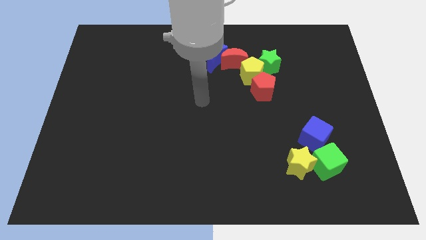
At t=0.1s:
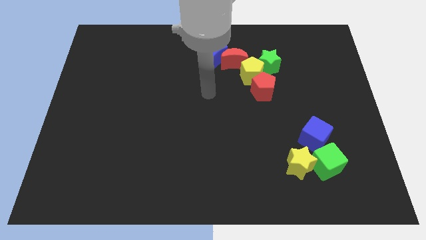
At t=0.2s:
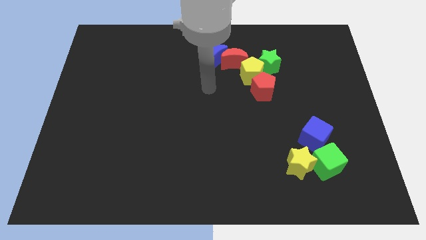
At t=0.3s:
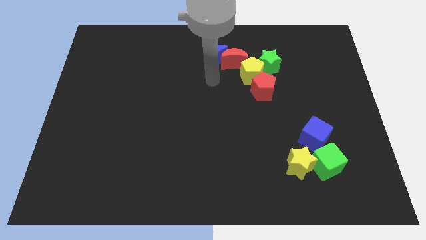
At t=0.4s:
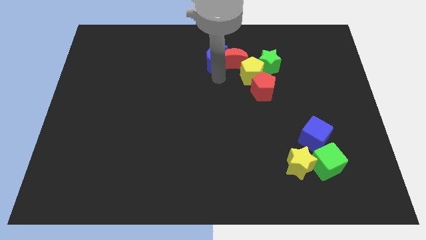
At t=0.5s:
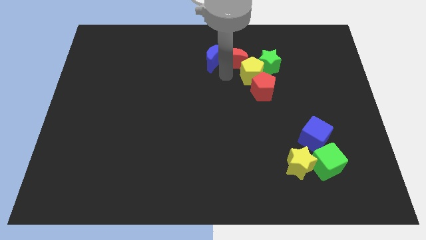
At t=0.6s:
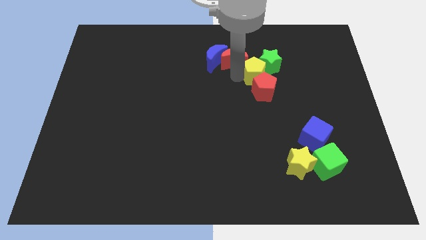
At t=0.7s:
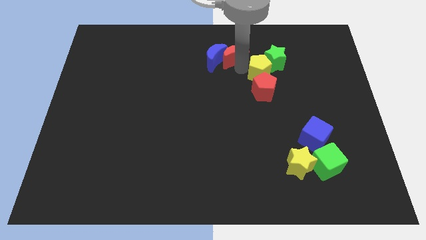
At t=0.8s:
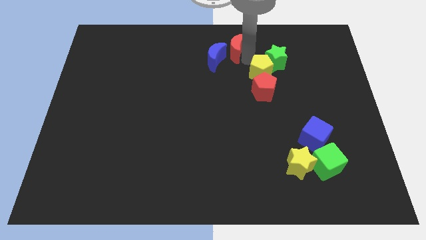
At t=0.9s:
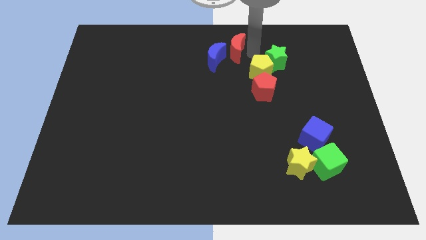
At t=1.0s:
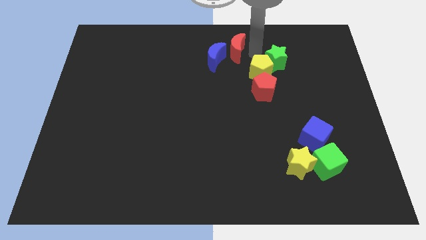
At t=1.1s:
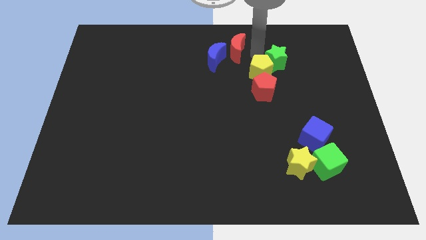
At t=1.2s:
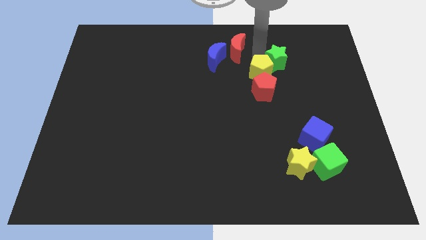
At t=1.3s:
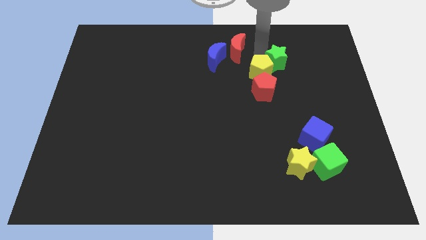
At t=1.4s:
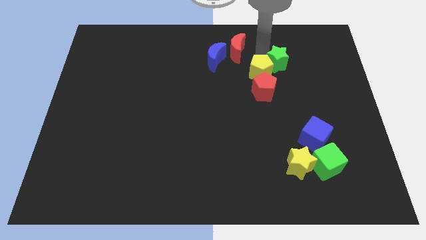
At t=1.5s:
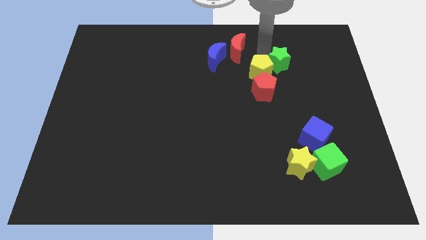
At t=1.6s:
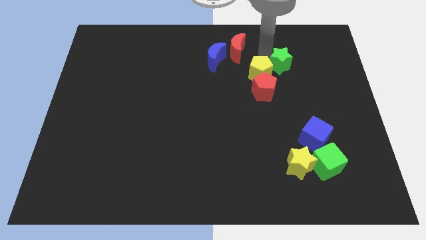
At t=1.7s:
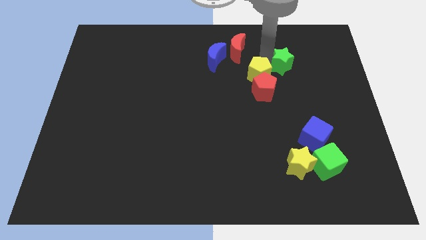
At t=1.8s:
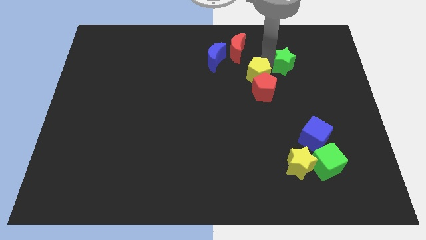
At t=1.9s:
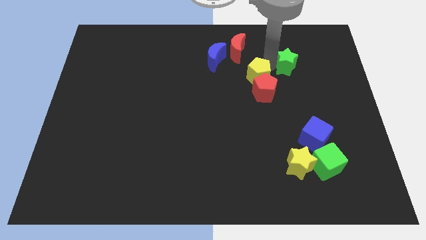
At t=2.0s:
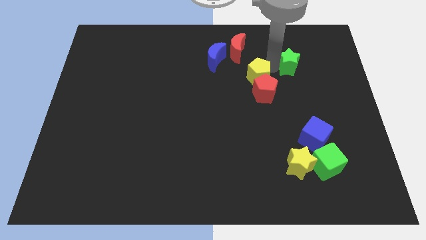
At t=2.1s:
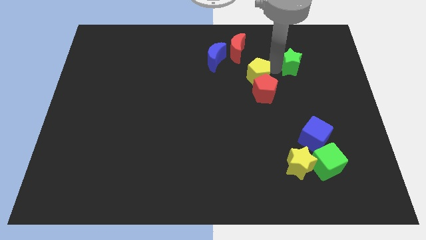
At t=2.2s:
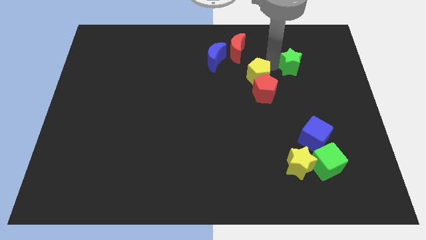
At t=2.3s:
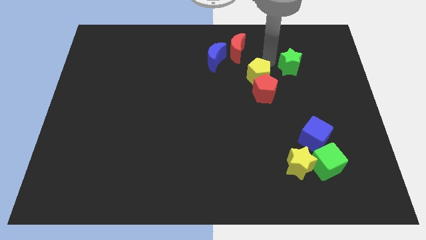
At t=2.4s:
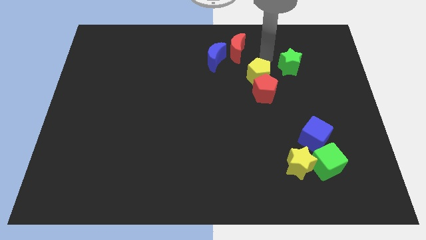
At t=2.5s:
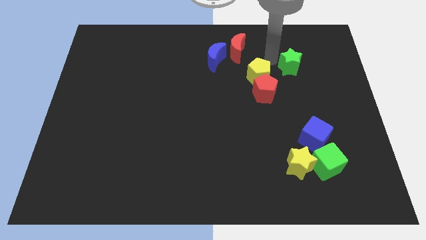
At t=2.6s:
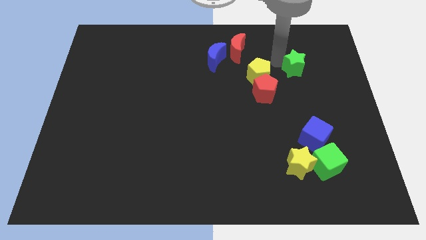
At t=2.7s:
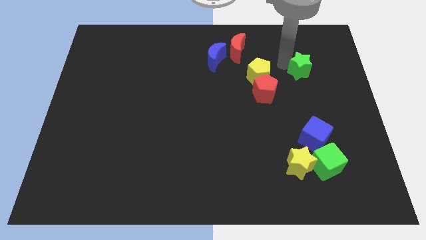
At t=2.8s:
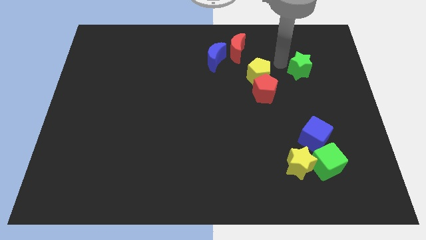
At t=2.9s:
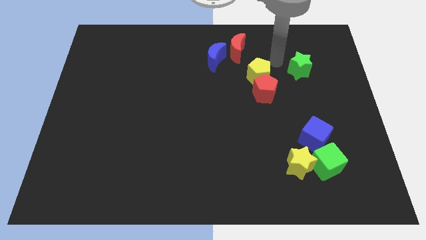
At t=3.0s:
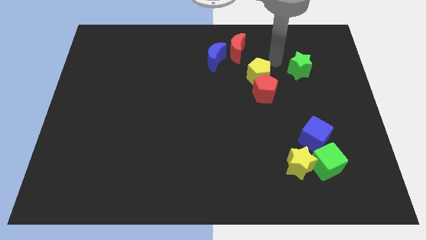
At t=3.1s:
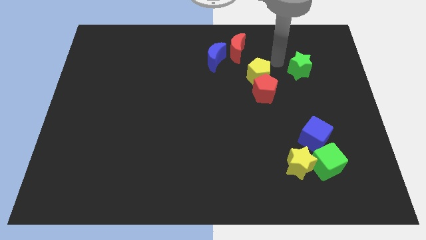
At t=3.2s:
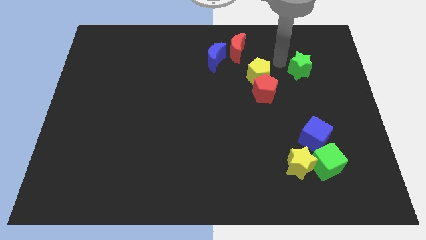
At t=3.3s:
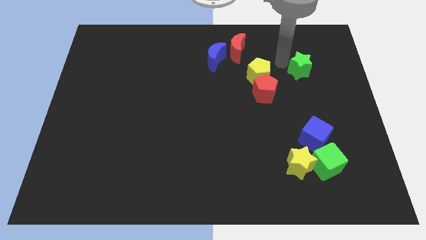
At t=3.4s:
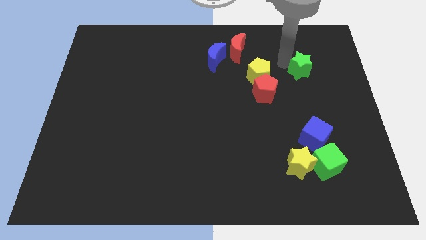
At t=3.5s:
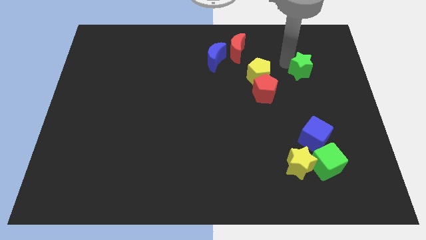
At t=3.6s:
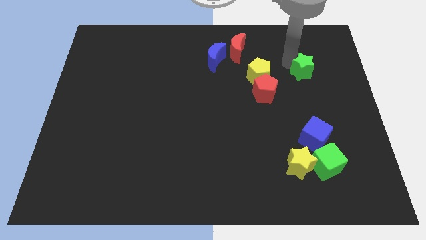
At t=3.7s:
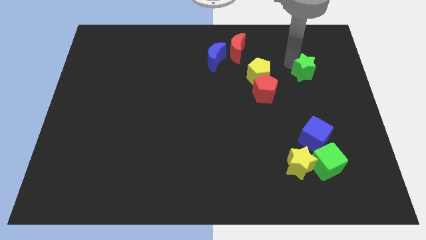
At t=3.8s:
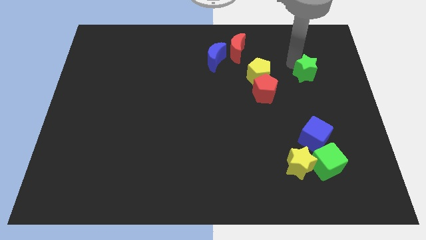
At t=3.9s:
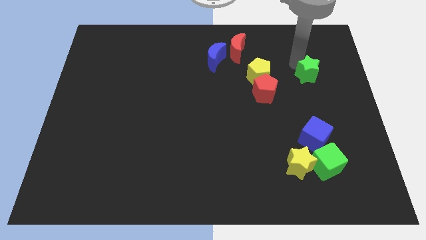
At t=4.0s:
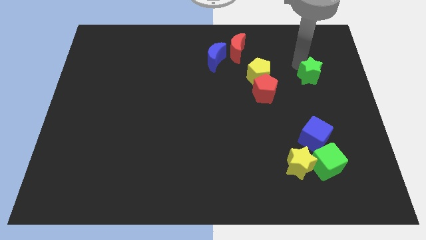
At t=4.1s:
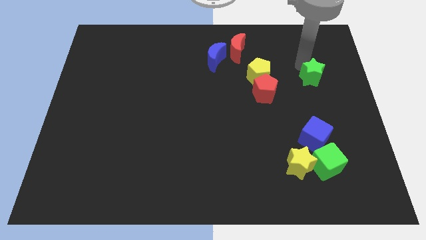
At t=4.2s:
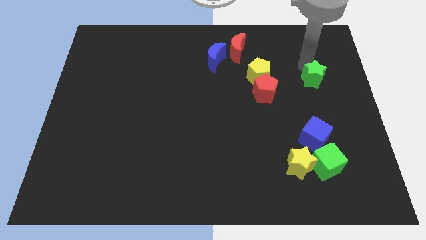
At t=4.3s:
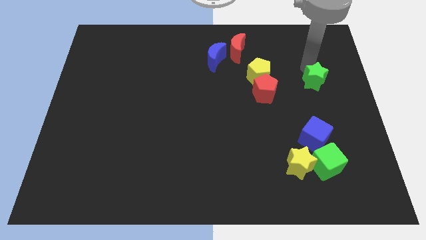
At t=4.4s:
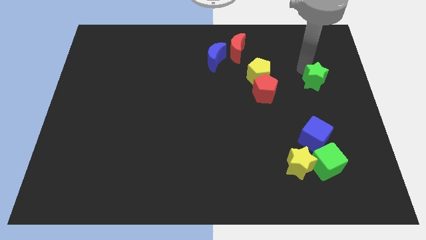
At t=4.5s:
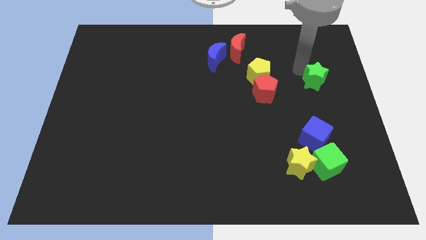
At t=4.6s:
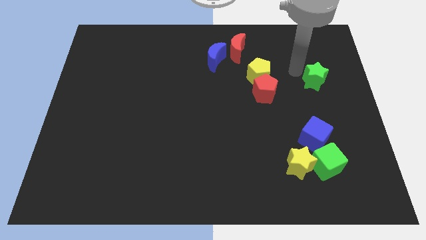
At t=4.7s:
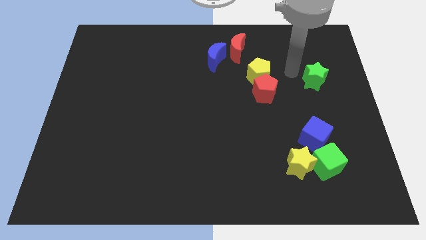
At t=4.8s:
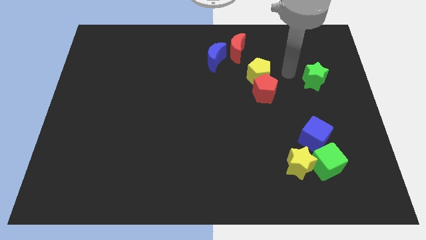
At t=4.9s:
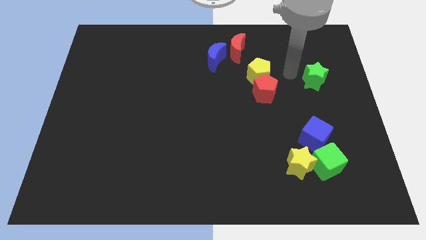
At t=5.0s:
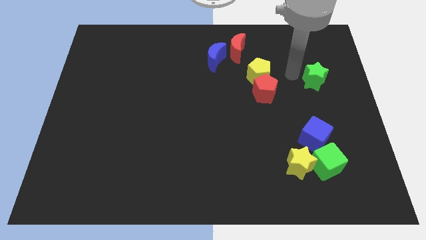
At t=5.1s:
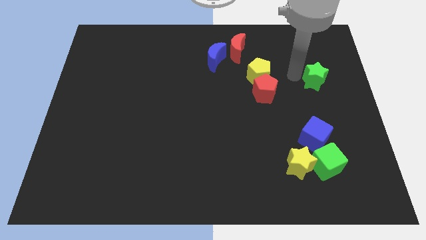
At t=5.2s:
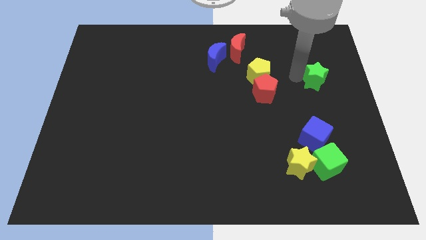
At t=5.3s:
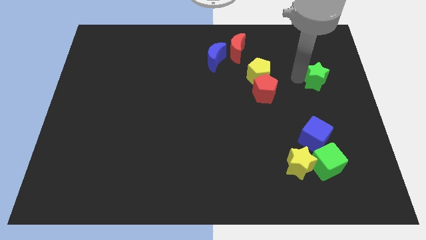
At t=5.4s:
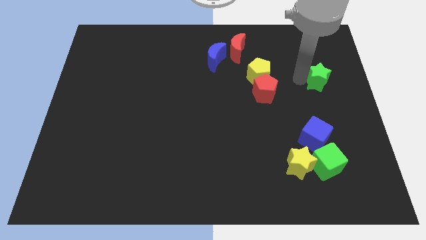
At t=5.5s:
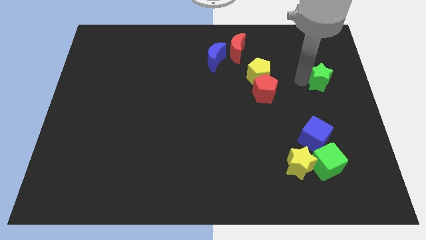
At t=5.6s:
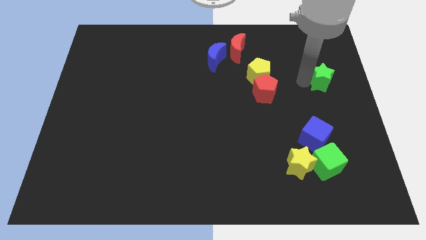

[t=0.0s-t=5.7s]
move the green star to the right side

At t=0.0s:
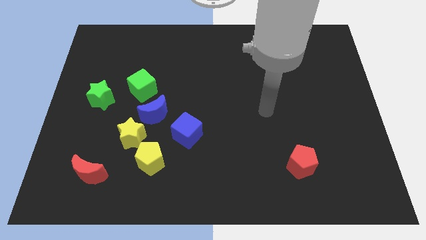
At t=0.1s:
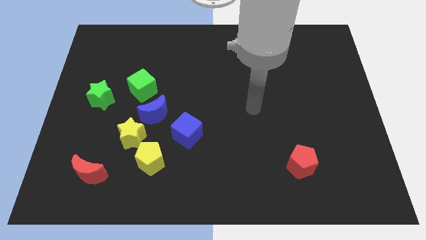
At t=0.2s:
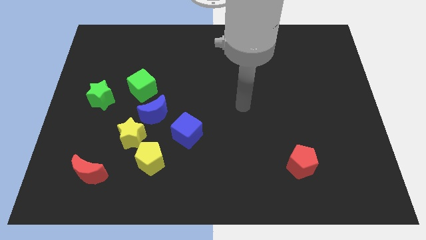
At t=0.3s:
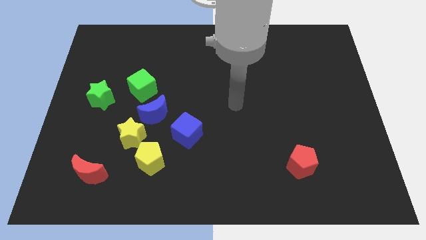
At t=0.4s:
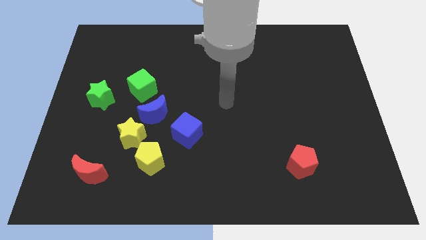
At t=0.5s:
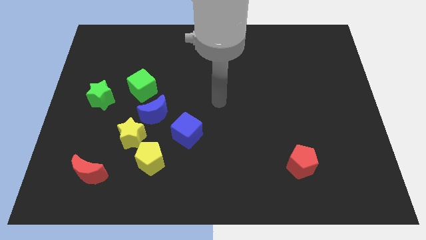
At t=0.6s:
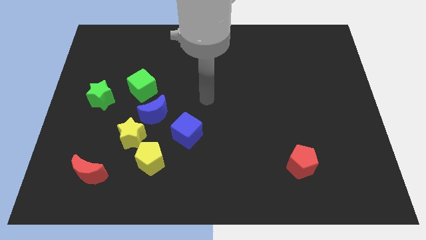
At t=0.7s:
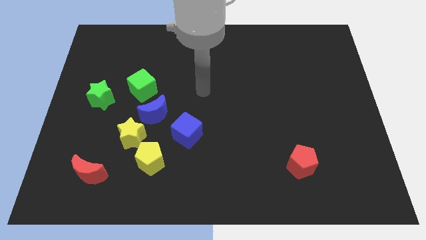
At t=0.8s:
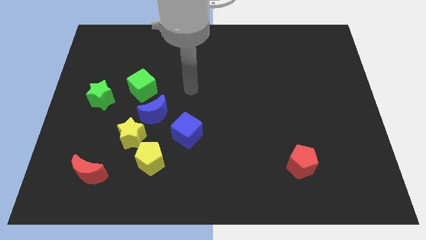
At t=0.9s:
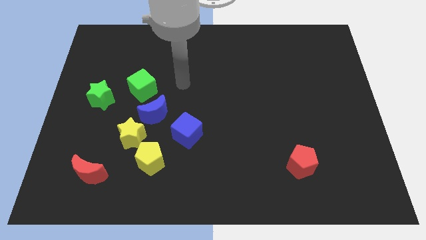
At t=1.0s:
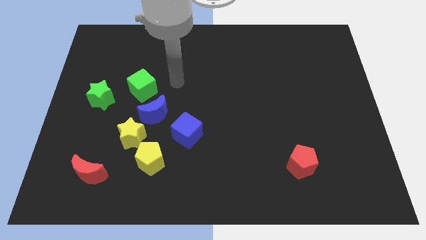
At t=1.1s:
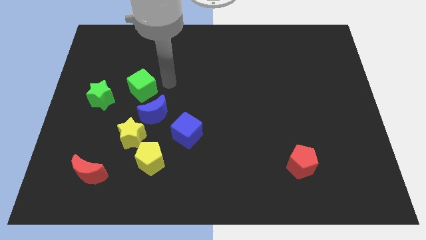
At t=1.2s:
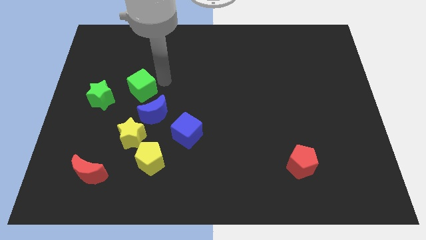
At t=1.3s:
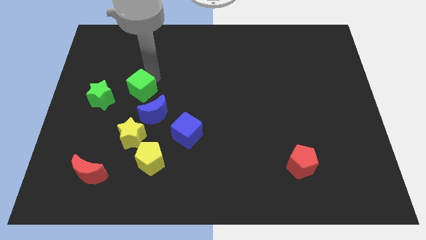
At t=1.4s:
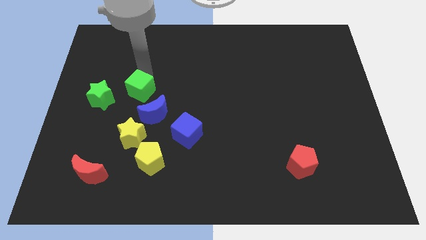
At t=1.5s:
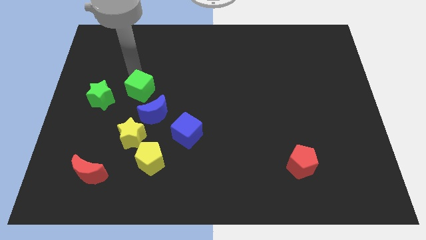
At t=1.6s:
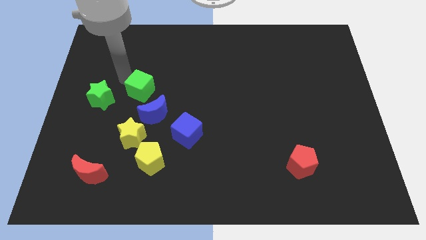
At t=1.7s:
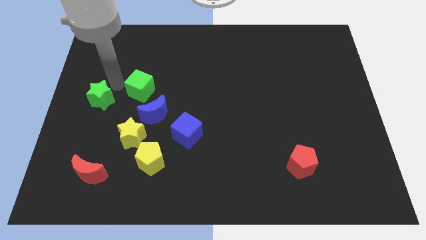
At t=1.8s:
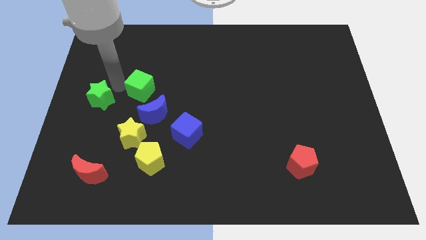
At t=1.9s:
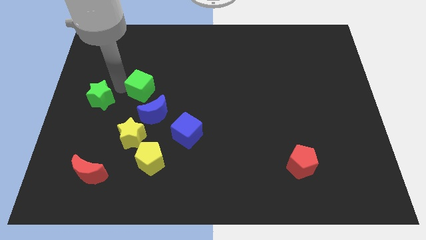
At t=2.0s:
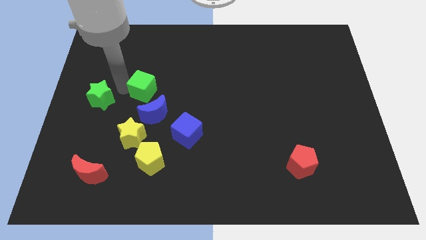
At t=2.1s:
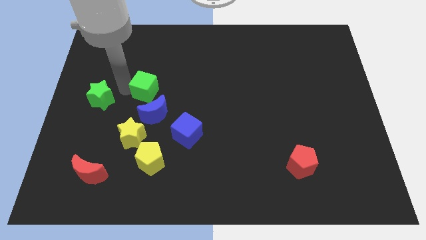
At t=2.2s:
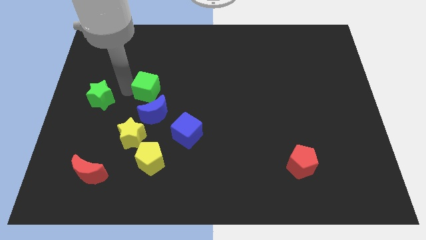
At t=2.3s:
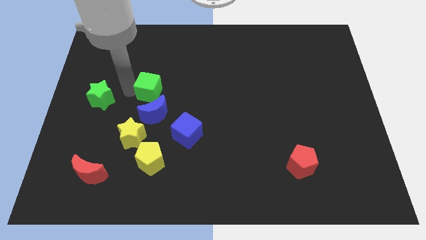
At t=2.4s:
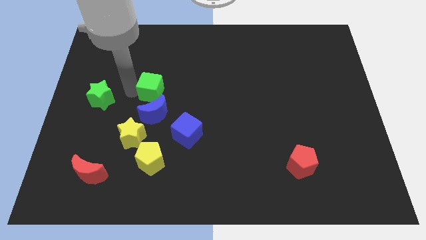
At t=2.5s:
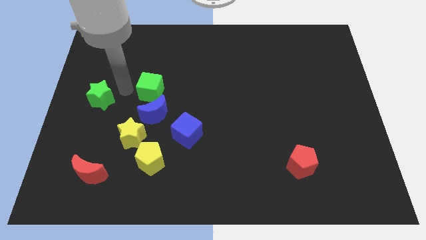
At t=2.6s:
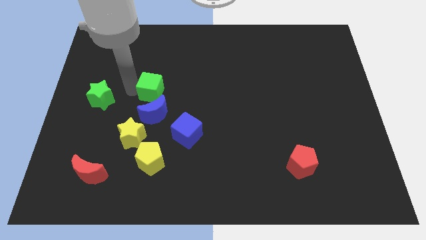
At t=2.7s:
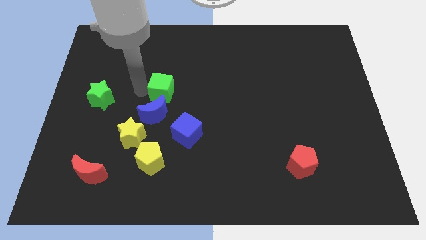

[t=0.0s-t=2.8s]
slide the green cube to the center of the board

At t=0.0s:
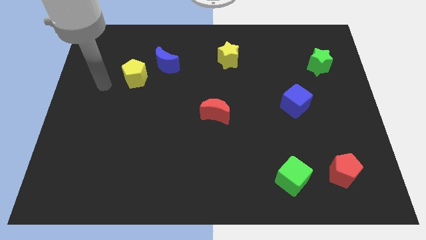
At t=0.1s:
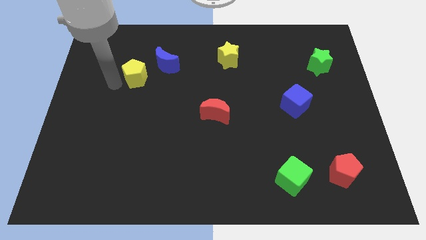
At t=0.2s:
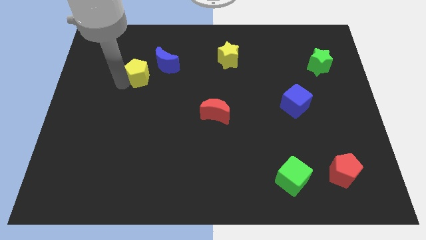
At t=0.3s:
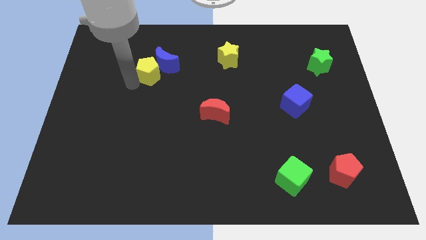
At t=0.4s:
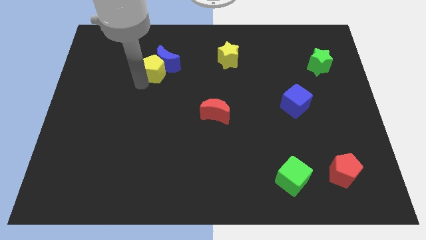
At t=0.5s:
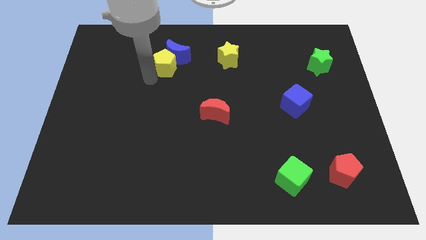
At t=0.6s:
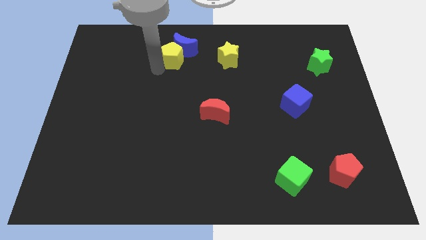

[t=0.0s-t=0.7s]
move the blue moon to the towards your base
